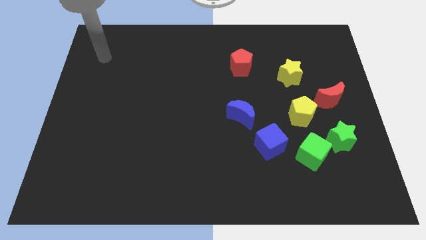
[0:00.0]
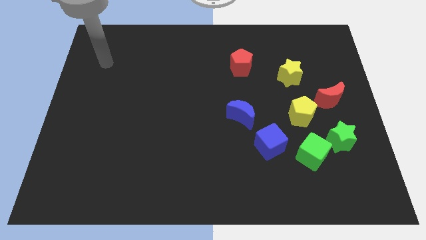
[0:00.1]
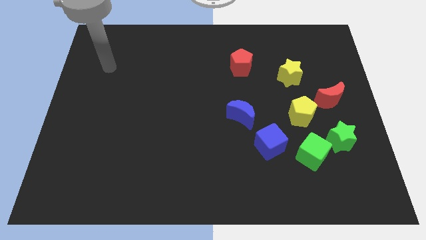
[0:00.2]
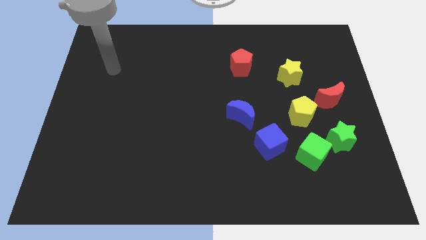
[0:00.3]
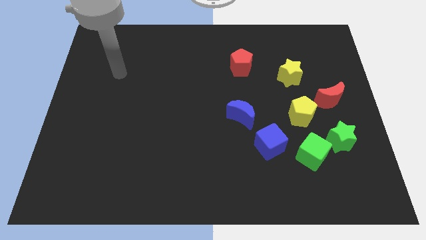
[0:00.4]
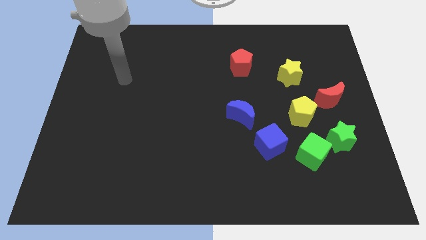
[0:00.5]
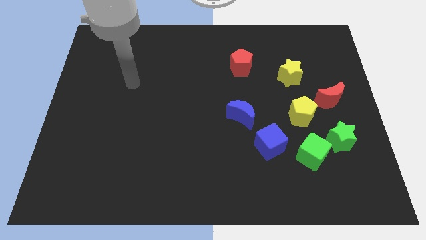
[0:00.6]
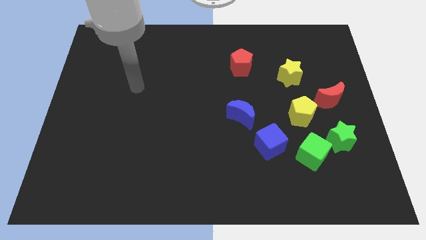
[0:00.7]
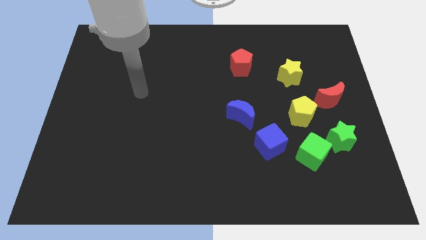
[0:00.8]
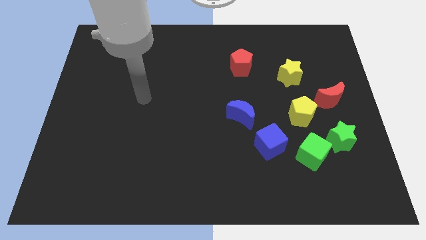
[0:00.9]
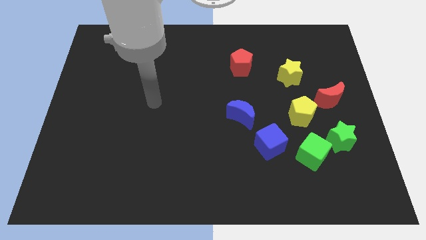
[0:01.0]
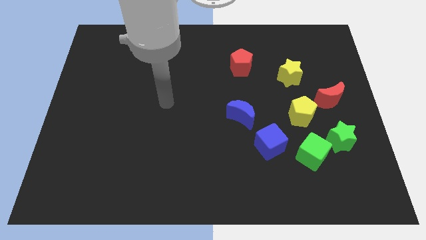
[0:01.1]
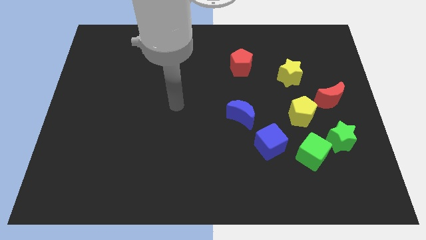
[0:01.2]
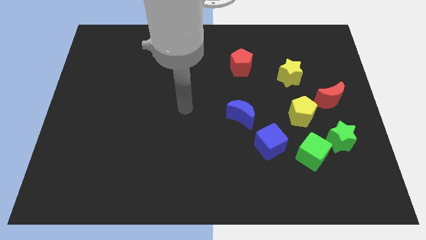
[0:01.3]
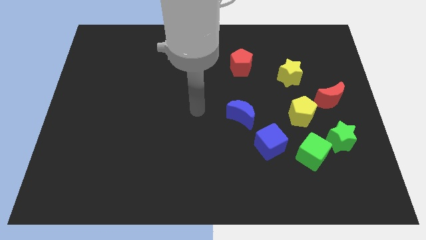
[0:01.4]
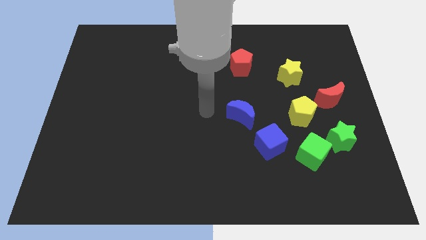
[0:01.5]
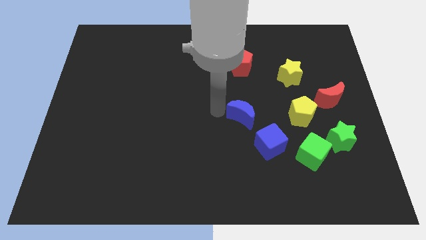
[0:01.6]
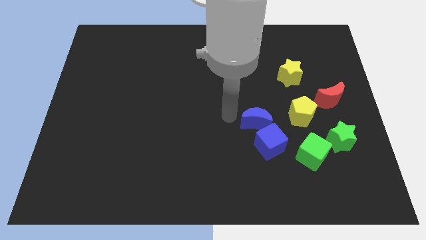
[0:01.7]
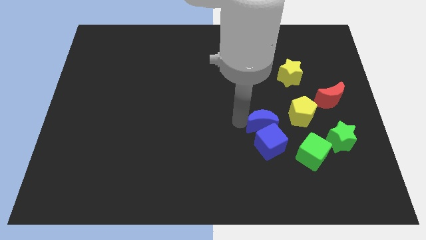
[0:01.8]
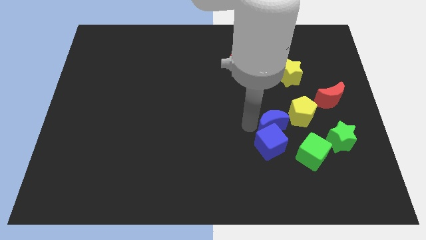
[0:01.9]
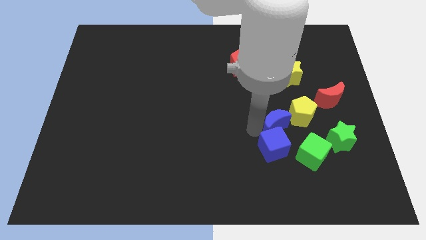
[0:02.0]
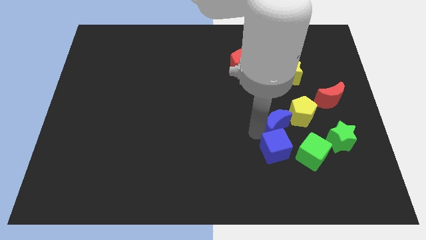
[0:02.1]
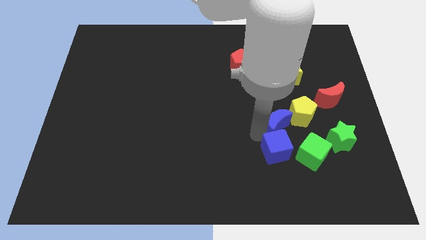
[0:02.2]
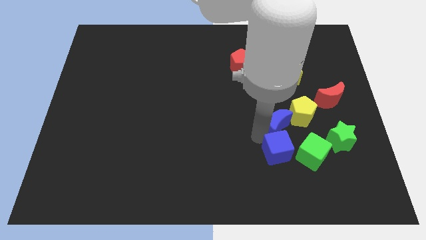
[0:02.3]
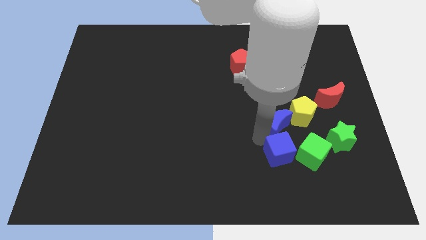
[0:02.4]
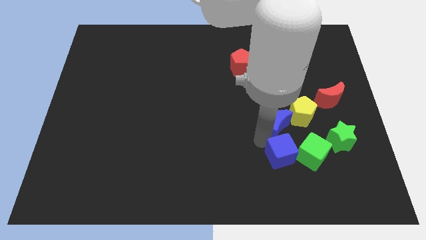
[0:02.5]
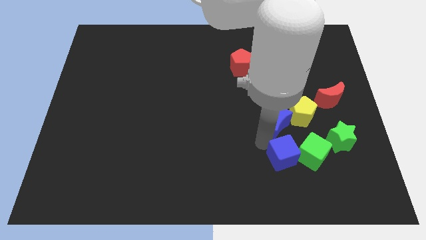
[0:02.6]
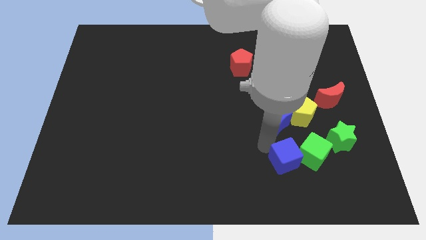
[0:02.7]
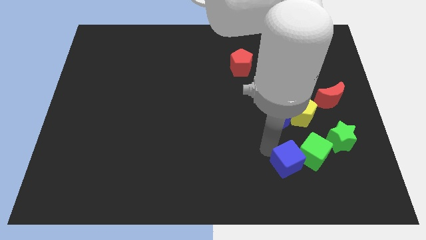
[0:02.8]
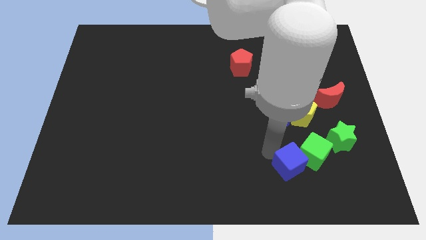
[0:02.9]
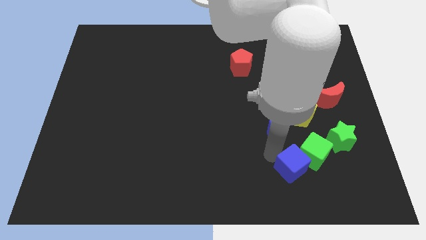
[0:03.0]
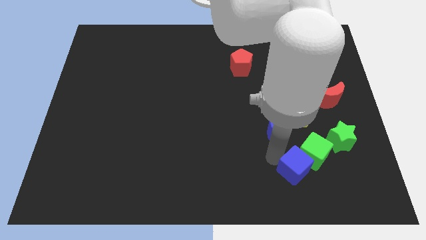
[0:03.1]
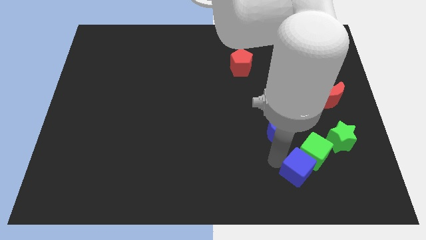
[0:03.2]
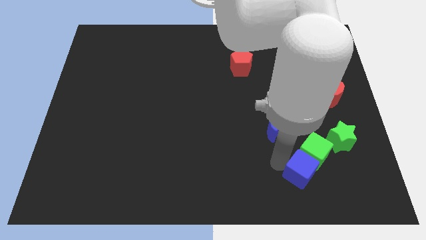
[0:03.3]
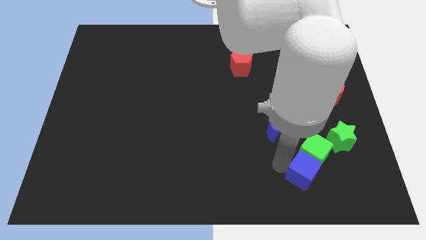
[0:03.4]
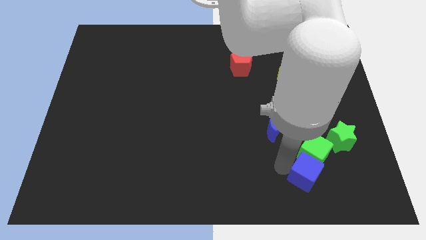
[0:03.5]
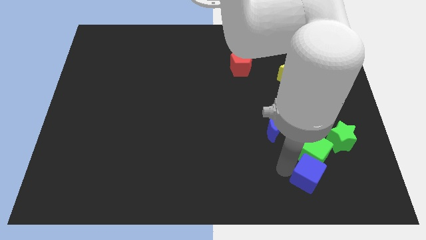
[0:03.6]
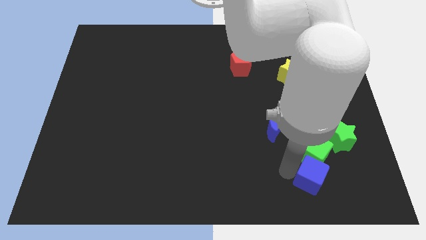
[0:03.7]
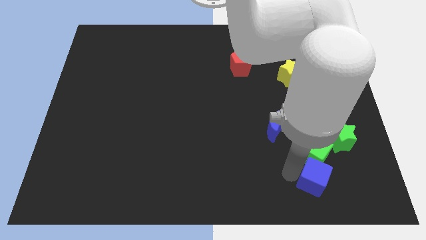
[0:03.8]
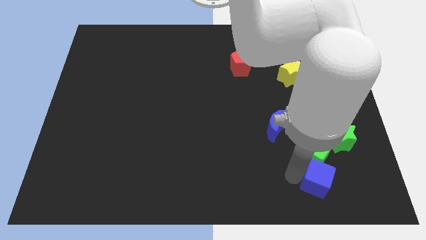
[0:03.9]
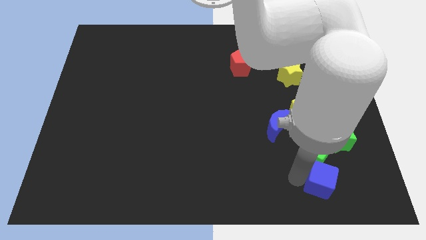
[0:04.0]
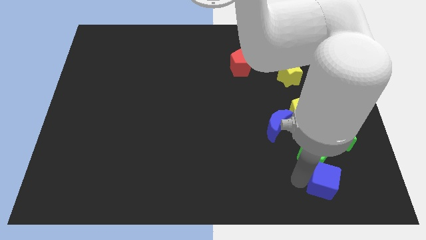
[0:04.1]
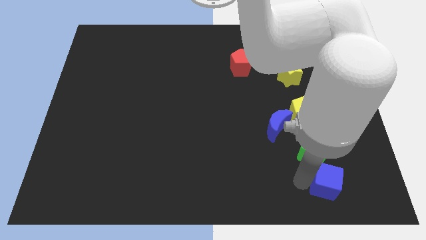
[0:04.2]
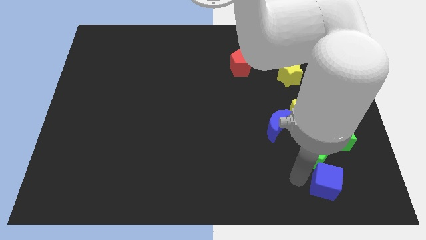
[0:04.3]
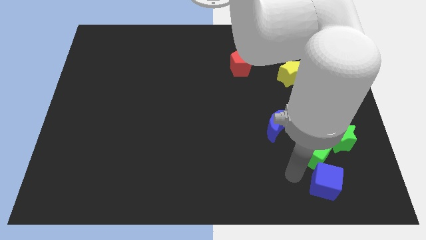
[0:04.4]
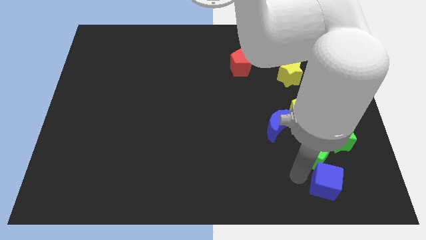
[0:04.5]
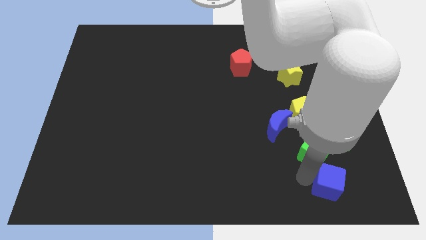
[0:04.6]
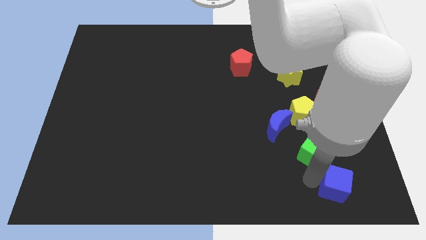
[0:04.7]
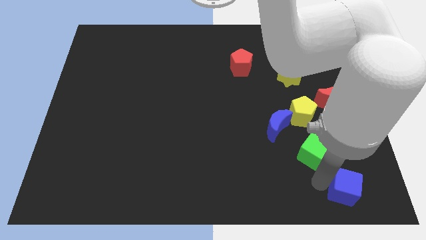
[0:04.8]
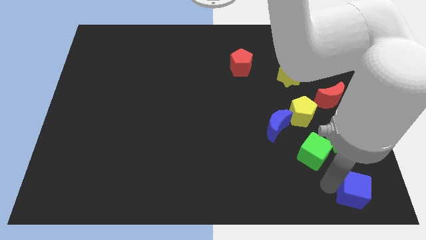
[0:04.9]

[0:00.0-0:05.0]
put the blue cube to the bottom right

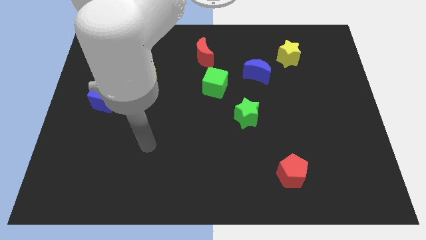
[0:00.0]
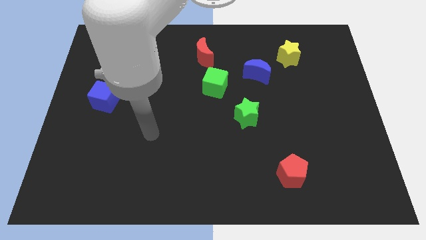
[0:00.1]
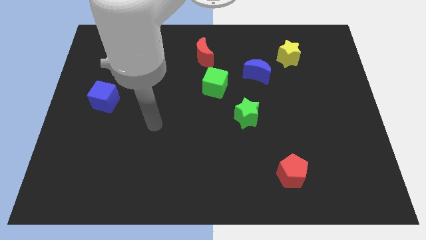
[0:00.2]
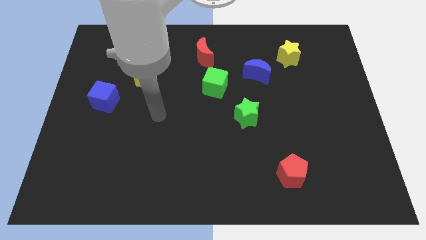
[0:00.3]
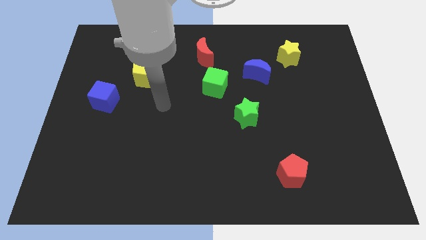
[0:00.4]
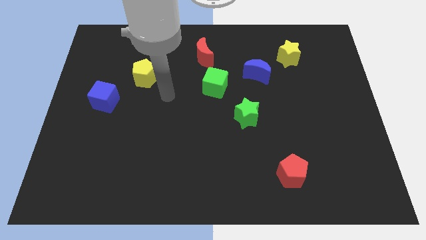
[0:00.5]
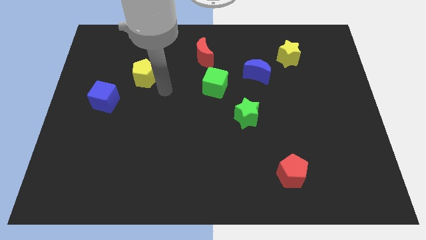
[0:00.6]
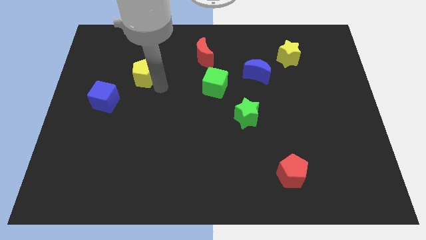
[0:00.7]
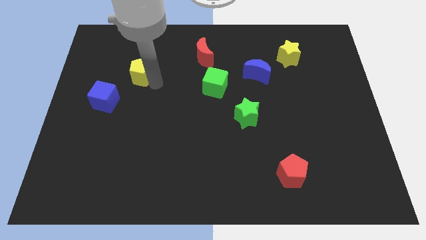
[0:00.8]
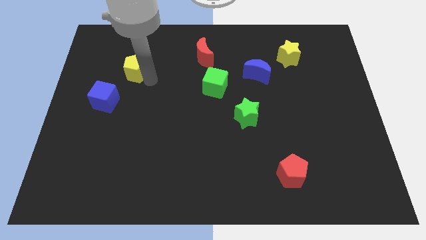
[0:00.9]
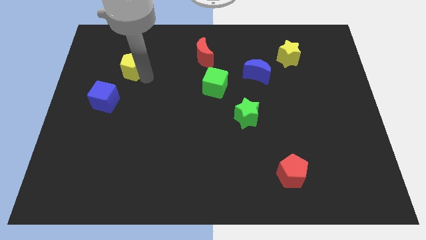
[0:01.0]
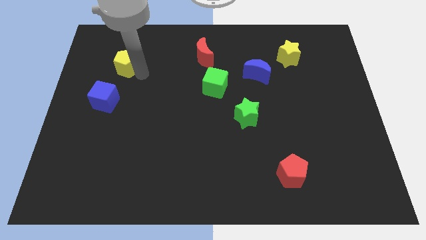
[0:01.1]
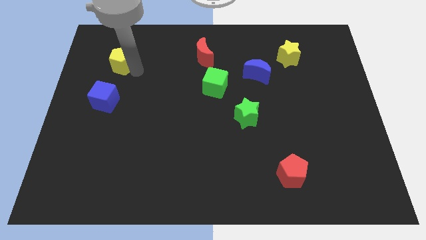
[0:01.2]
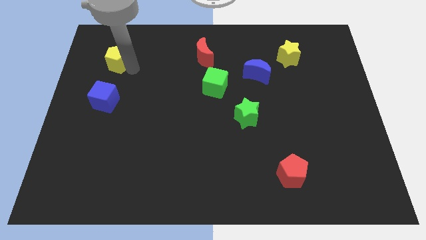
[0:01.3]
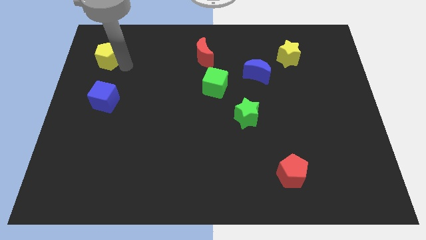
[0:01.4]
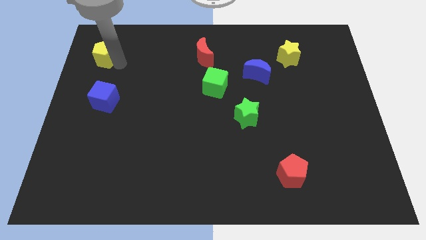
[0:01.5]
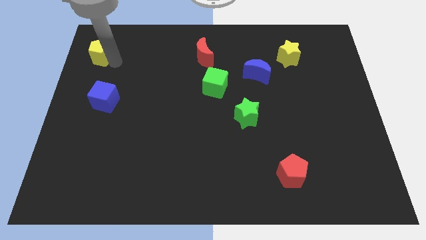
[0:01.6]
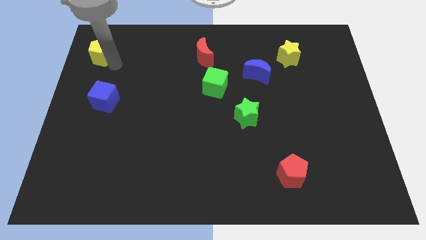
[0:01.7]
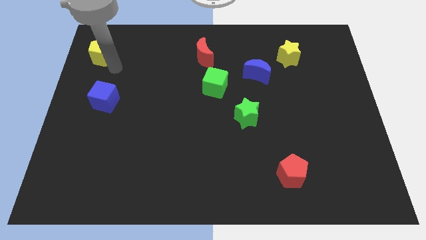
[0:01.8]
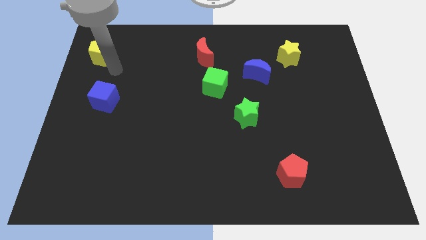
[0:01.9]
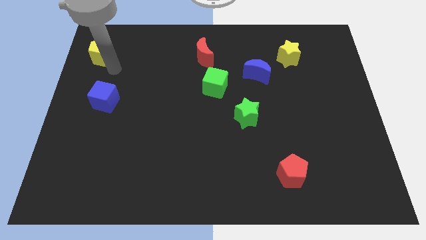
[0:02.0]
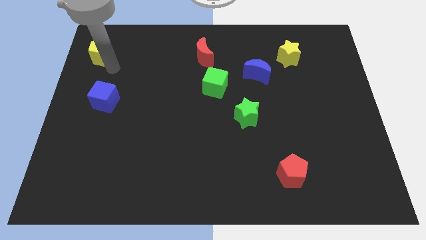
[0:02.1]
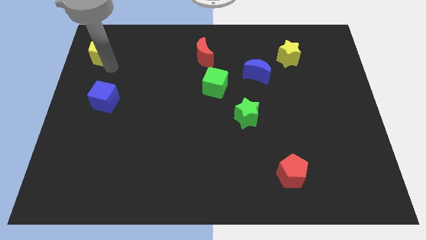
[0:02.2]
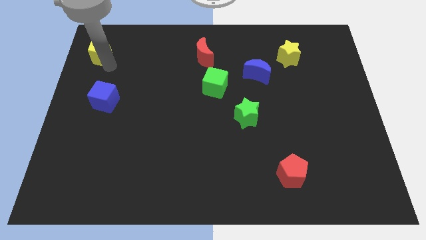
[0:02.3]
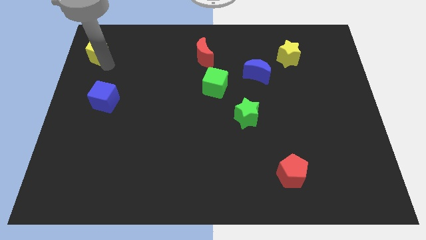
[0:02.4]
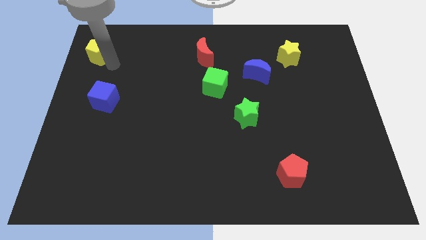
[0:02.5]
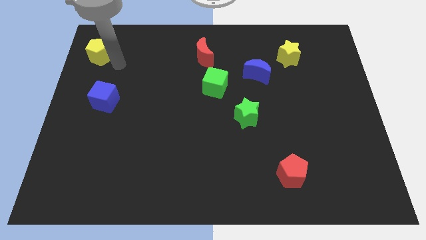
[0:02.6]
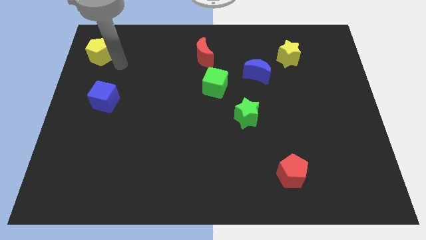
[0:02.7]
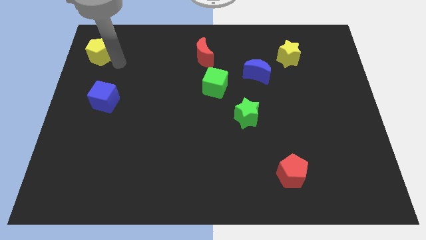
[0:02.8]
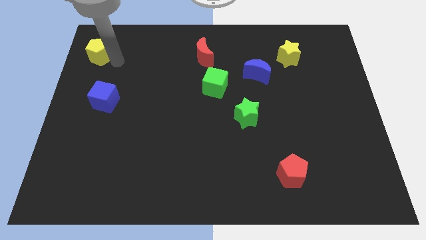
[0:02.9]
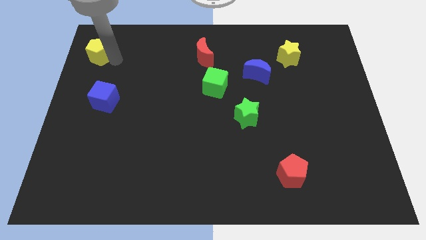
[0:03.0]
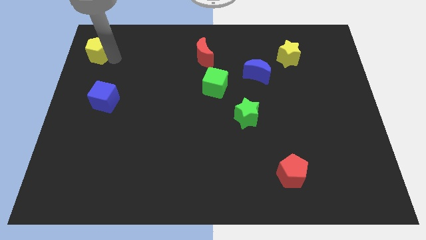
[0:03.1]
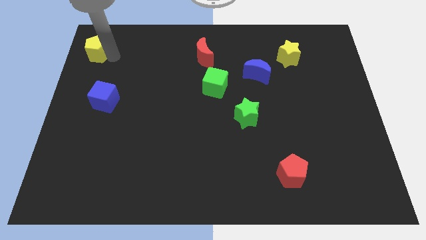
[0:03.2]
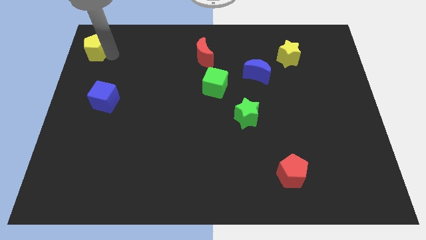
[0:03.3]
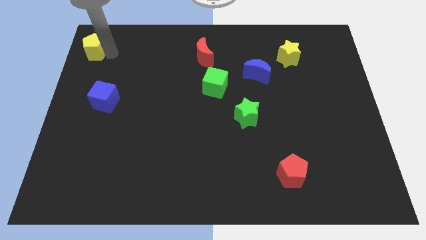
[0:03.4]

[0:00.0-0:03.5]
put the yellow pentagon to the top left corner
